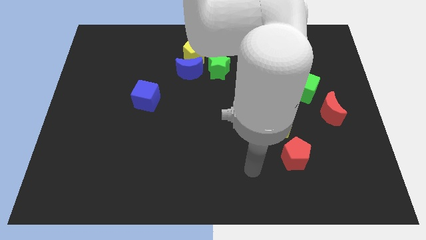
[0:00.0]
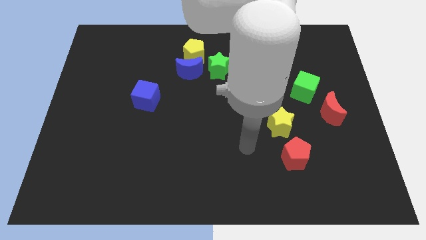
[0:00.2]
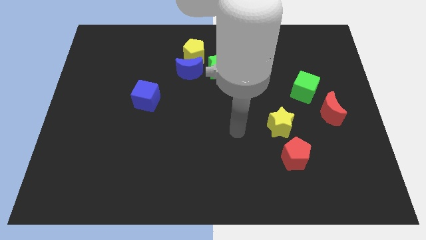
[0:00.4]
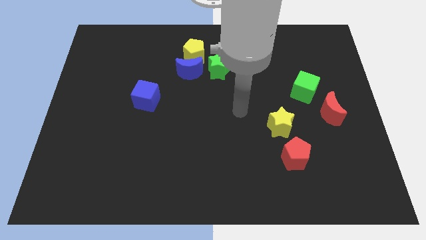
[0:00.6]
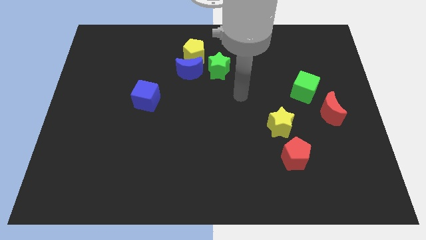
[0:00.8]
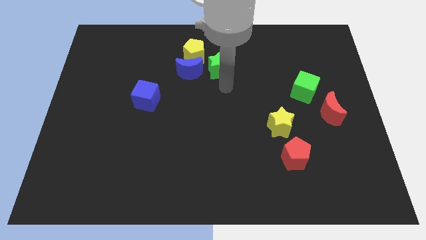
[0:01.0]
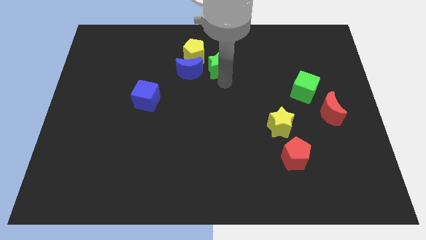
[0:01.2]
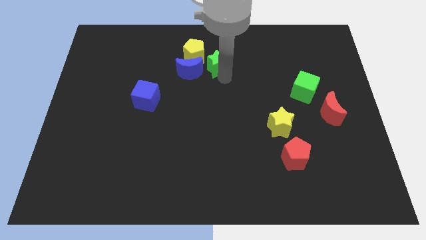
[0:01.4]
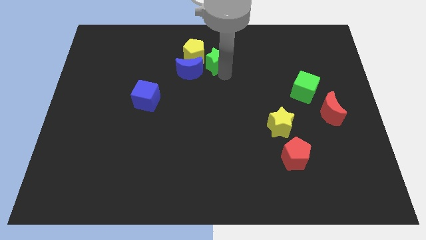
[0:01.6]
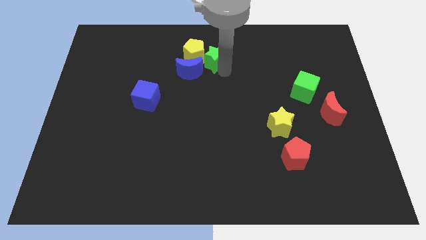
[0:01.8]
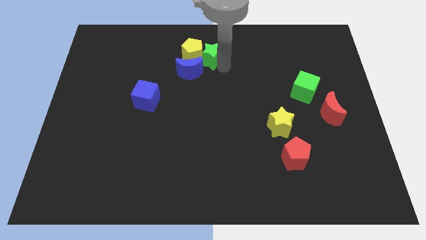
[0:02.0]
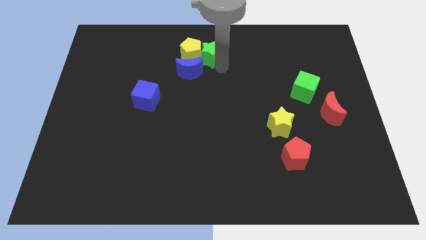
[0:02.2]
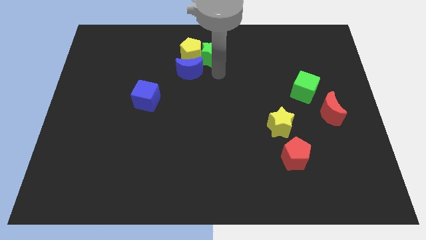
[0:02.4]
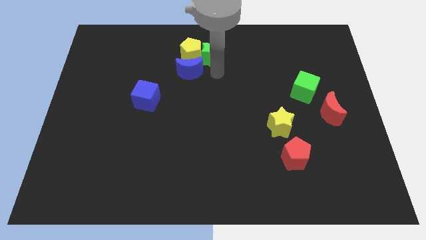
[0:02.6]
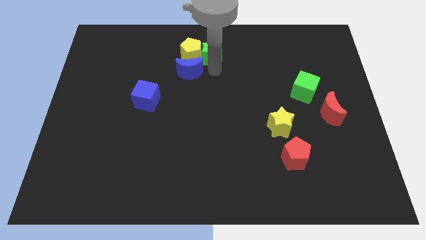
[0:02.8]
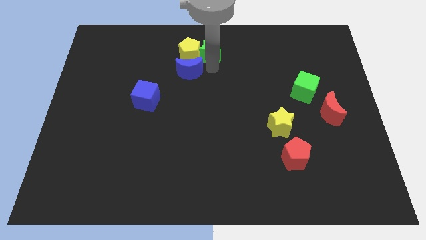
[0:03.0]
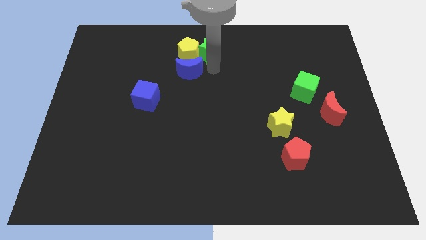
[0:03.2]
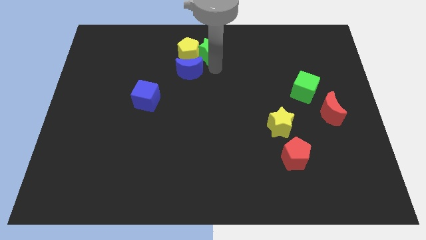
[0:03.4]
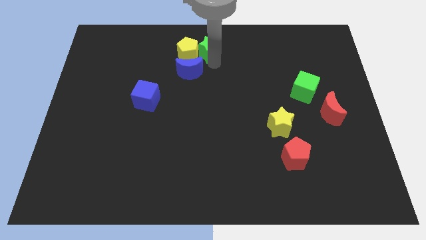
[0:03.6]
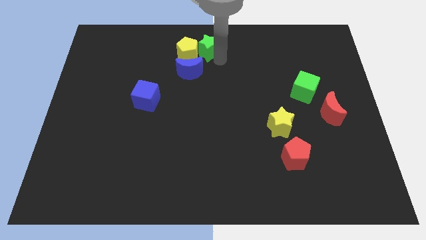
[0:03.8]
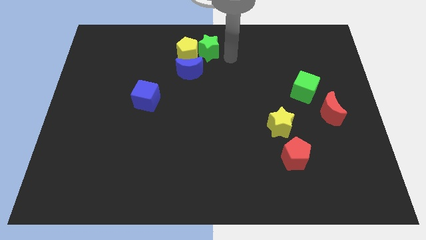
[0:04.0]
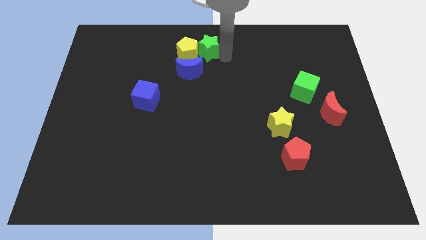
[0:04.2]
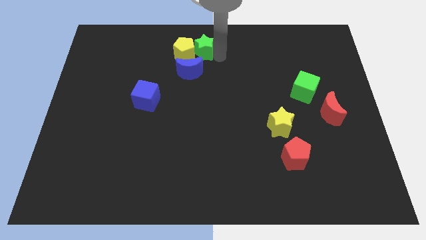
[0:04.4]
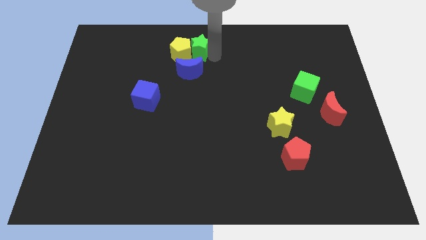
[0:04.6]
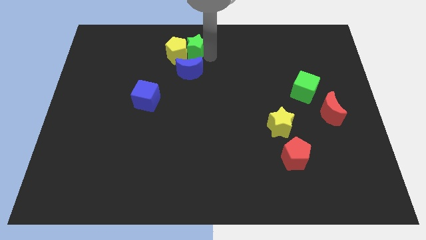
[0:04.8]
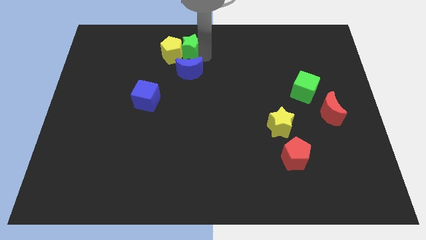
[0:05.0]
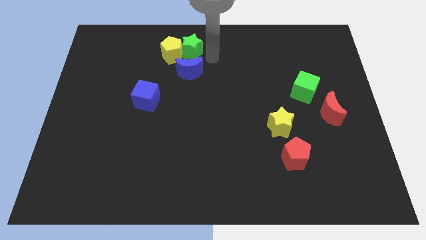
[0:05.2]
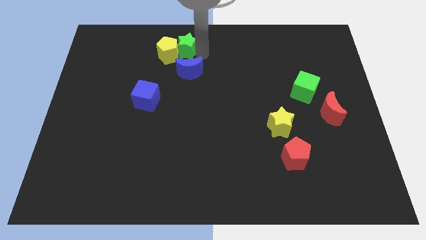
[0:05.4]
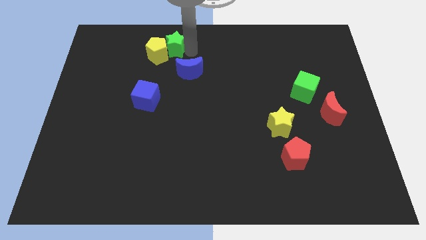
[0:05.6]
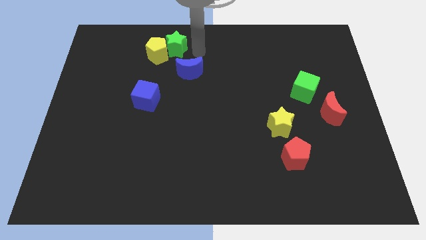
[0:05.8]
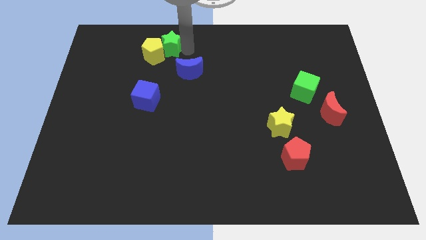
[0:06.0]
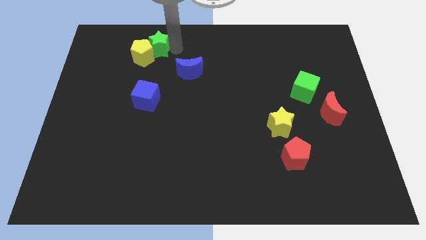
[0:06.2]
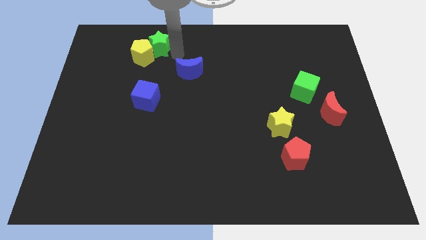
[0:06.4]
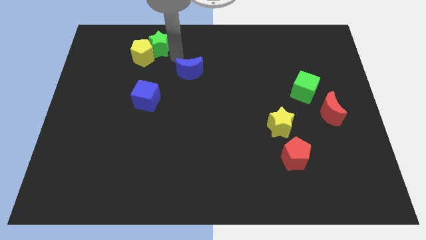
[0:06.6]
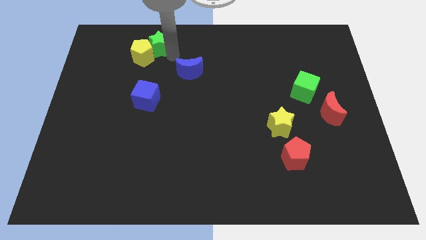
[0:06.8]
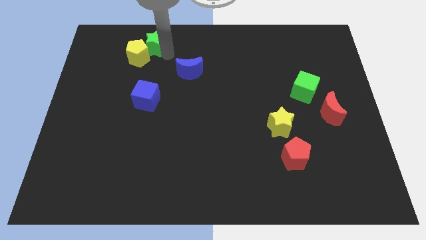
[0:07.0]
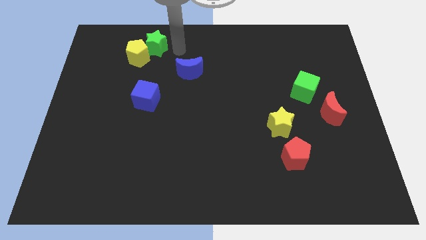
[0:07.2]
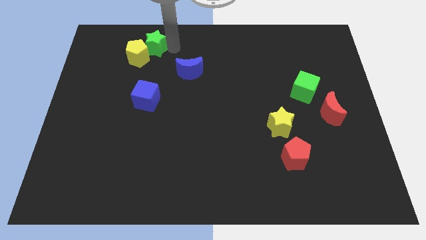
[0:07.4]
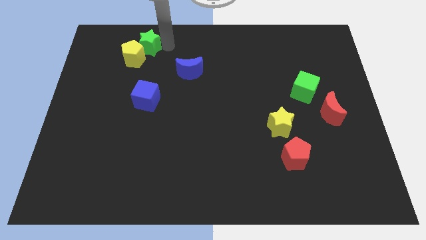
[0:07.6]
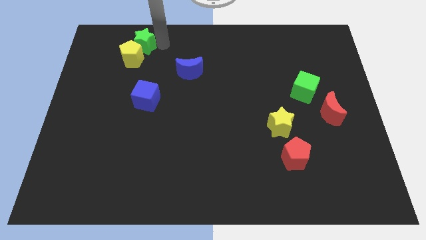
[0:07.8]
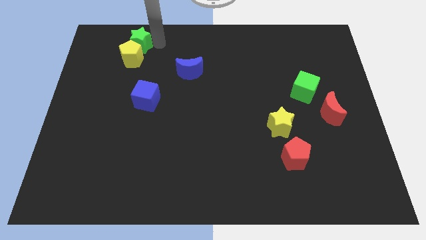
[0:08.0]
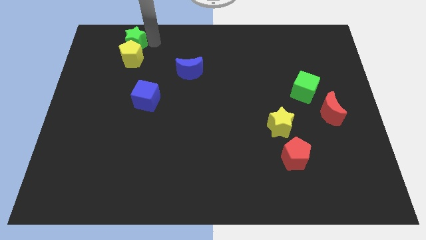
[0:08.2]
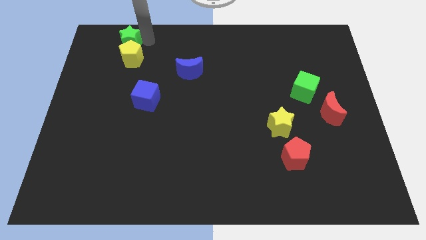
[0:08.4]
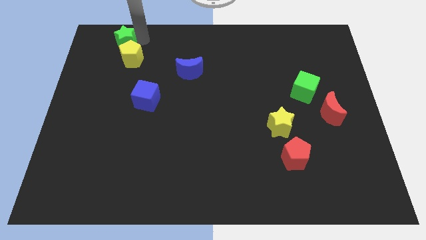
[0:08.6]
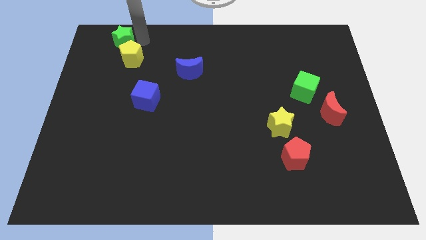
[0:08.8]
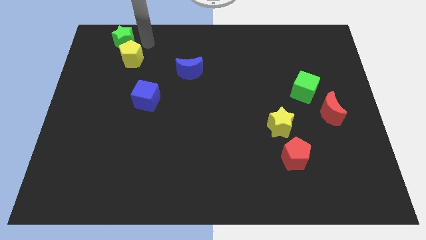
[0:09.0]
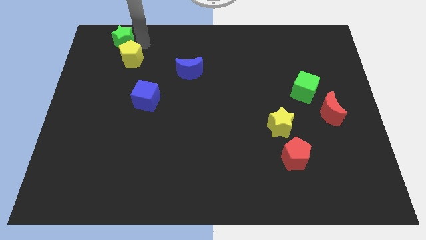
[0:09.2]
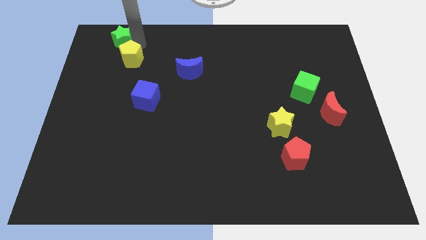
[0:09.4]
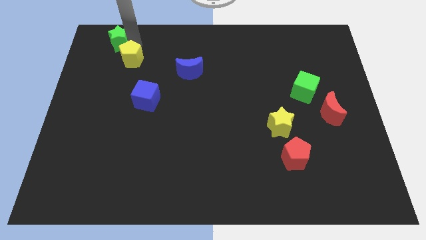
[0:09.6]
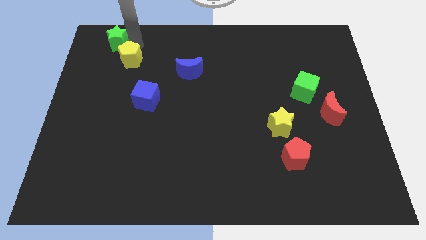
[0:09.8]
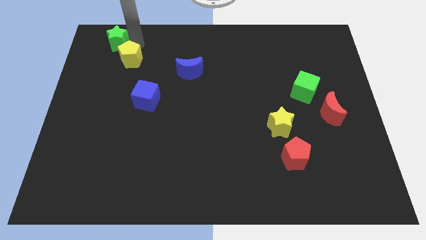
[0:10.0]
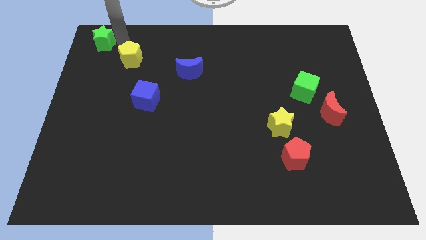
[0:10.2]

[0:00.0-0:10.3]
put the green star to the top left corner

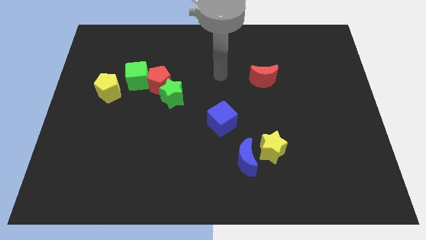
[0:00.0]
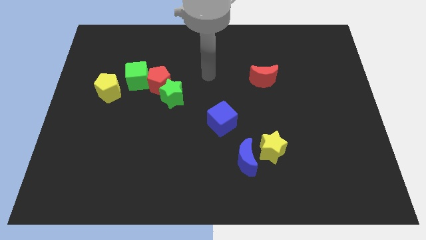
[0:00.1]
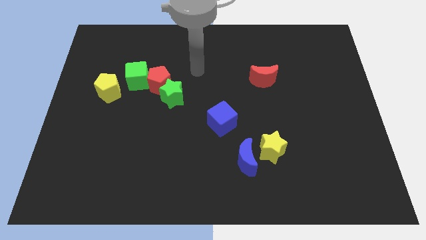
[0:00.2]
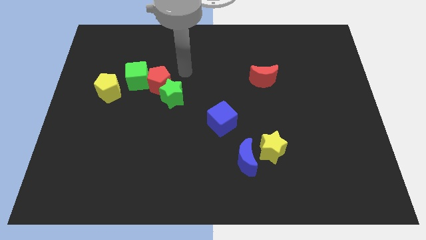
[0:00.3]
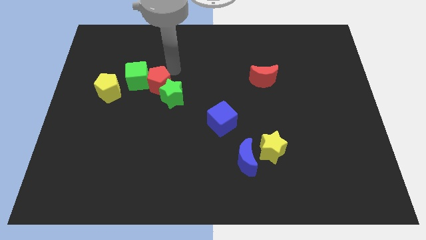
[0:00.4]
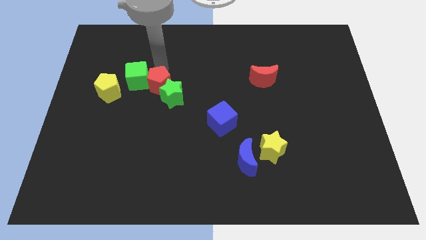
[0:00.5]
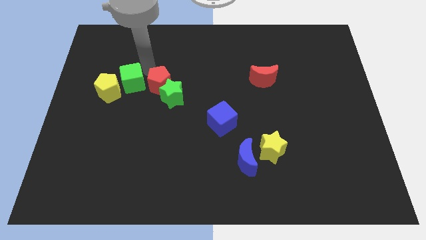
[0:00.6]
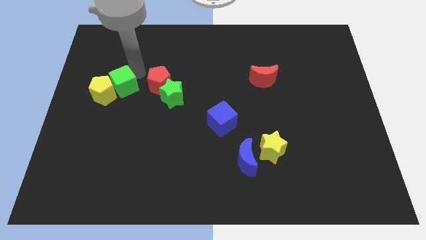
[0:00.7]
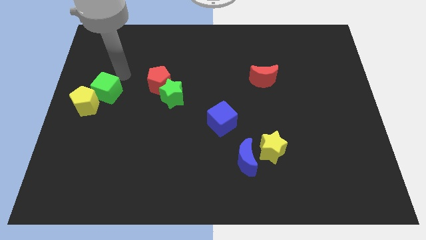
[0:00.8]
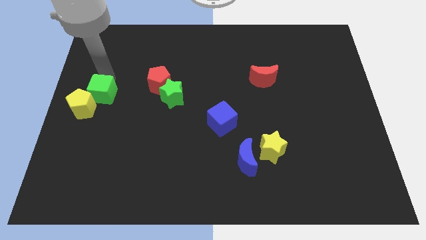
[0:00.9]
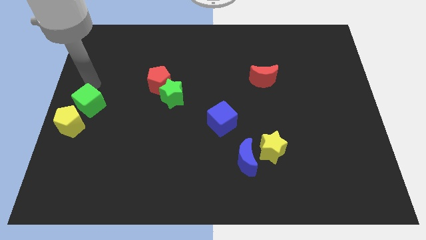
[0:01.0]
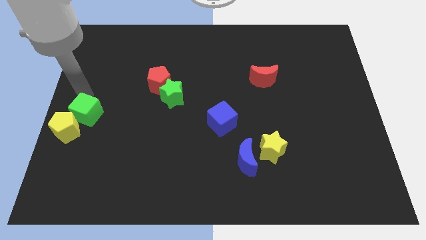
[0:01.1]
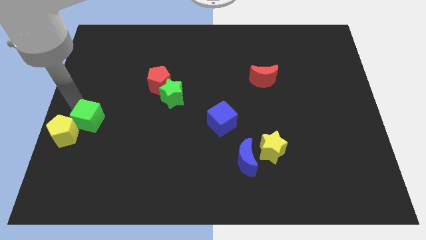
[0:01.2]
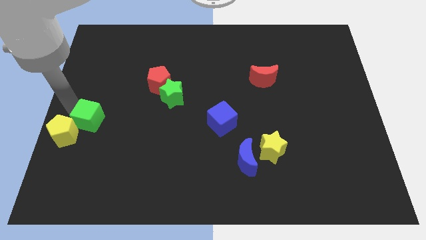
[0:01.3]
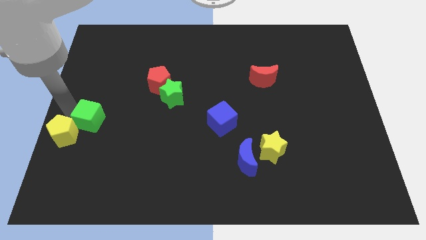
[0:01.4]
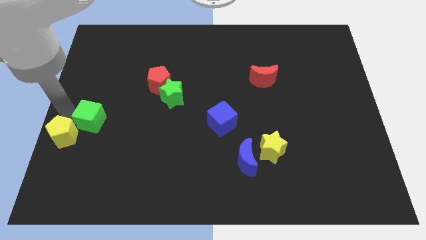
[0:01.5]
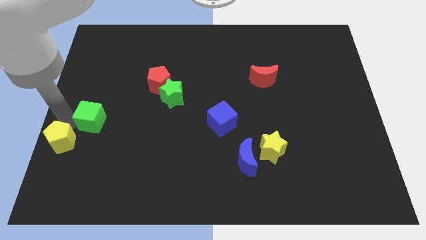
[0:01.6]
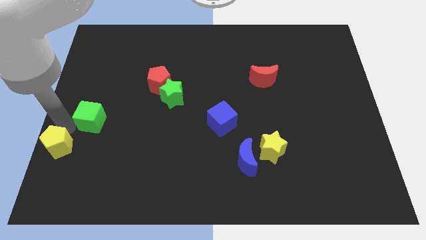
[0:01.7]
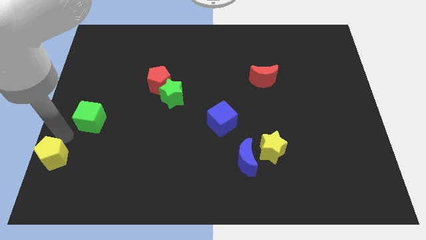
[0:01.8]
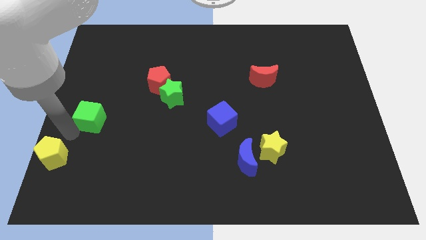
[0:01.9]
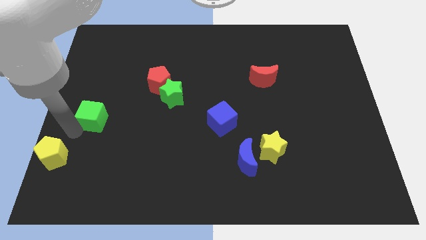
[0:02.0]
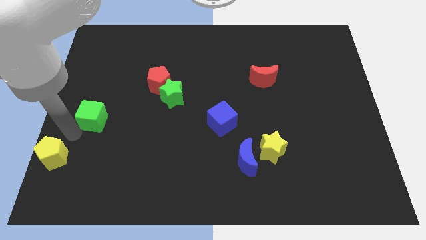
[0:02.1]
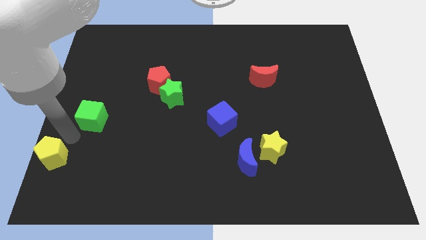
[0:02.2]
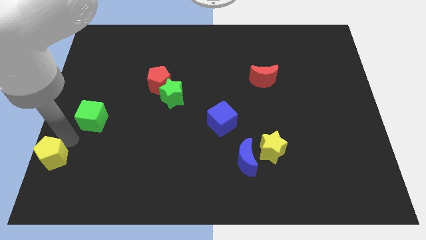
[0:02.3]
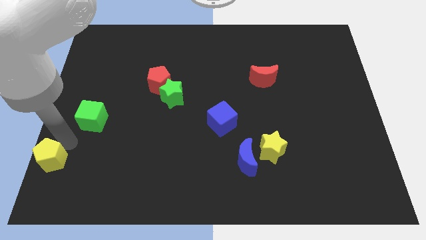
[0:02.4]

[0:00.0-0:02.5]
move the yellow pentagon to the bottom left of the board
